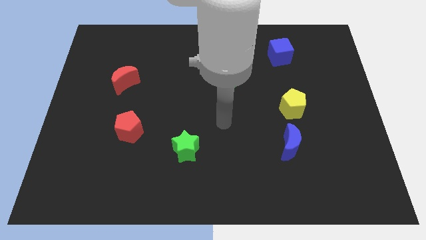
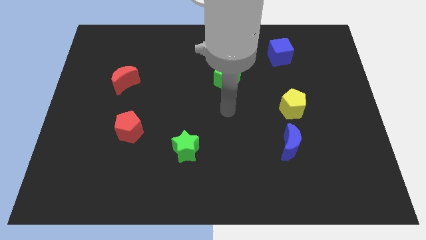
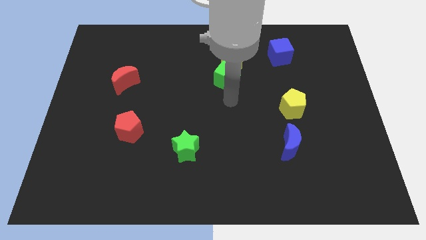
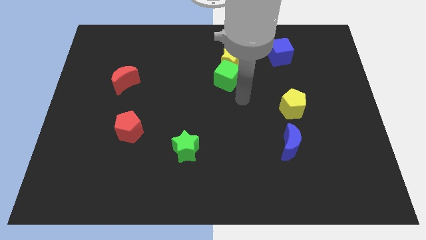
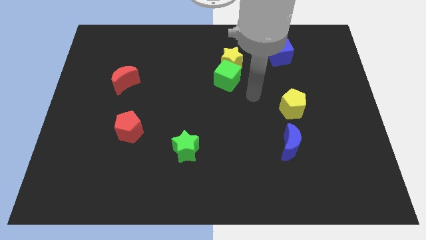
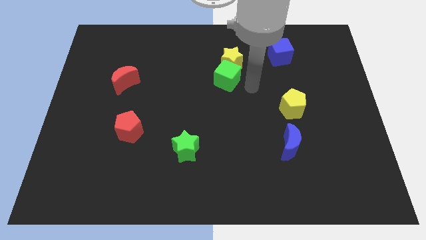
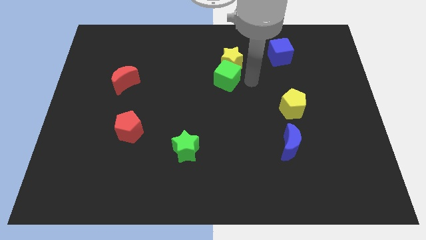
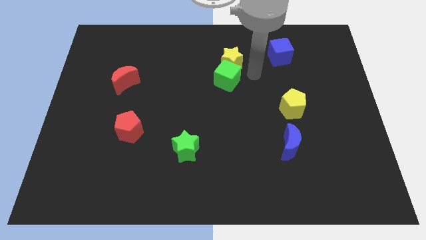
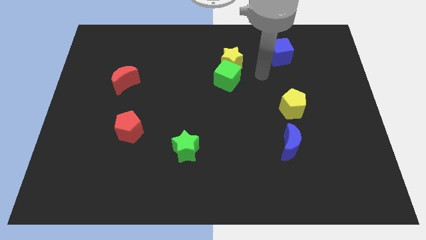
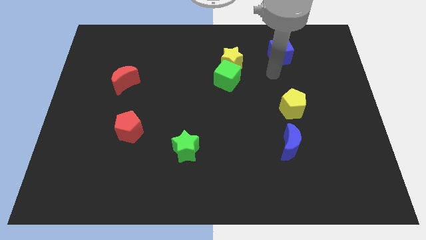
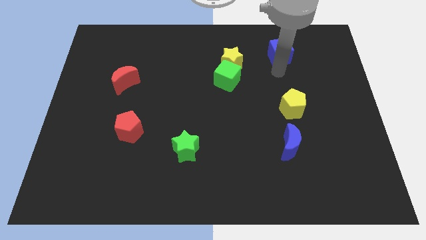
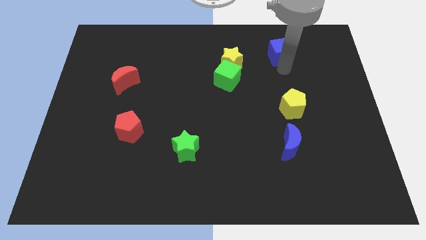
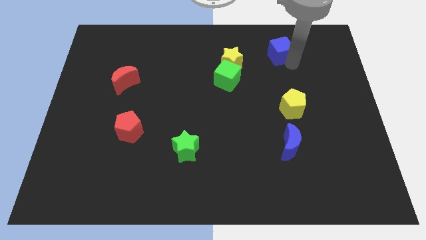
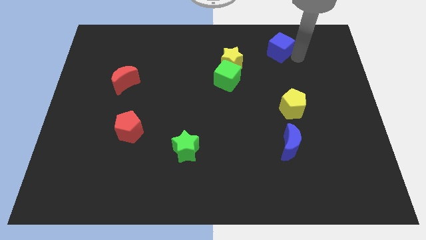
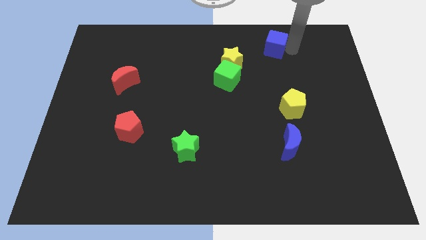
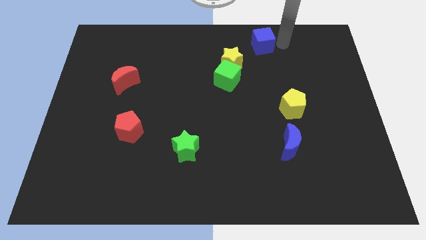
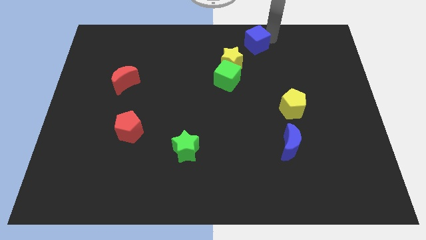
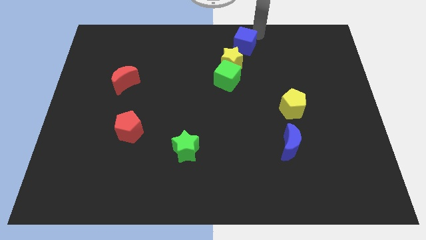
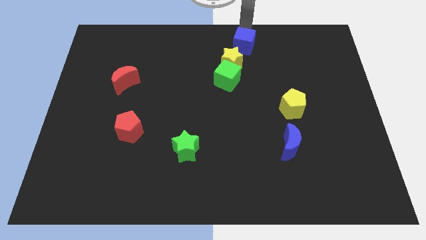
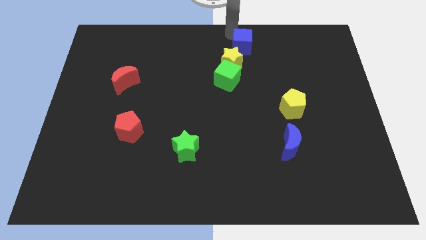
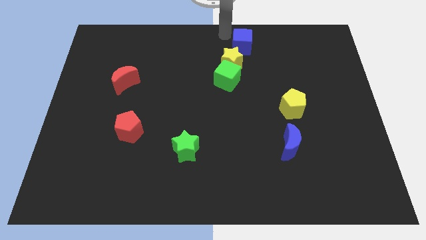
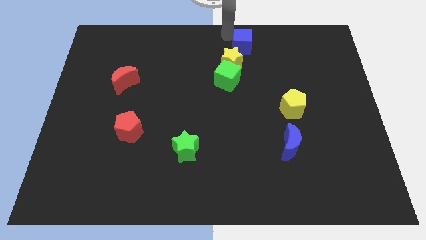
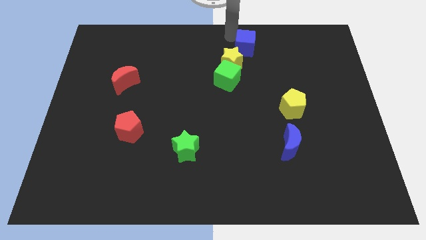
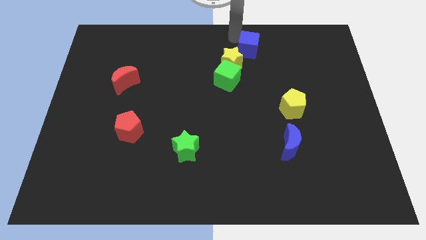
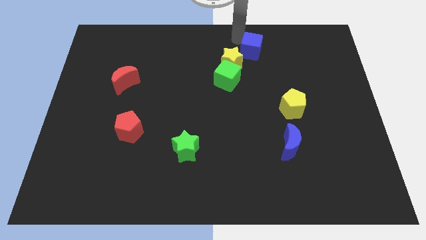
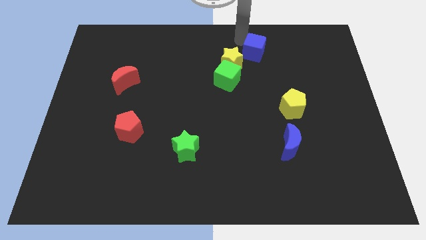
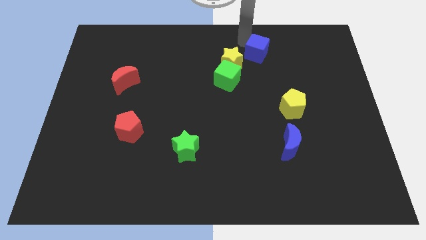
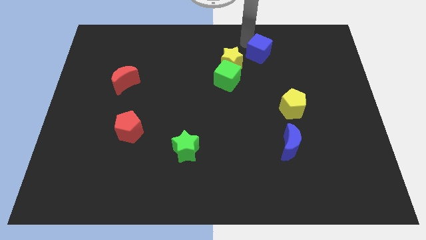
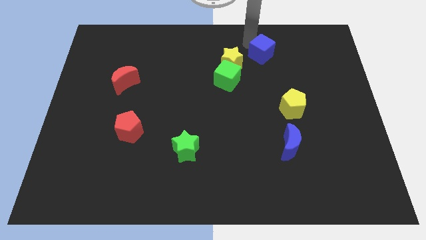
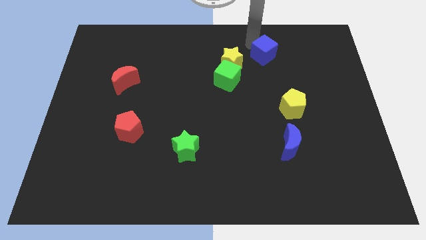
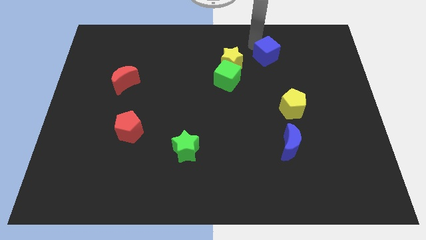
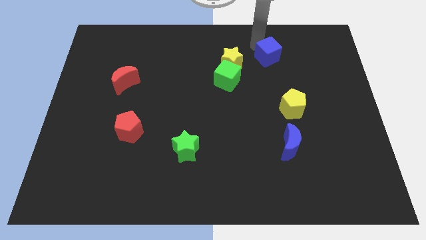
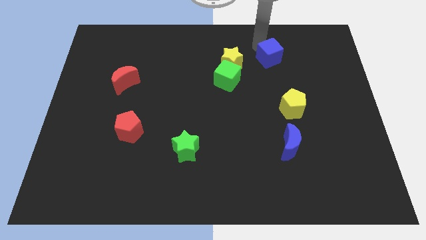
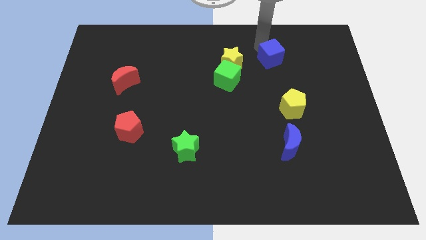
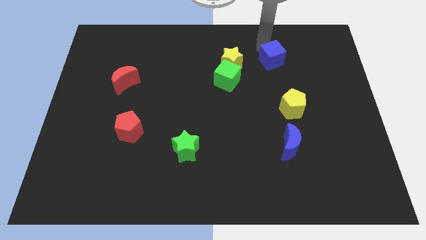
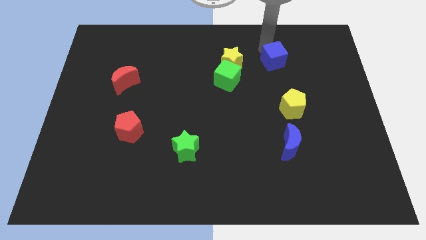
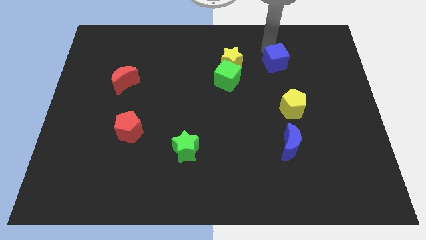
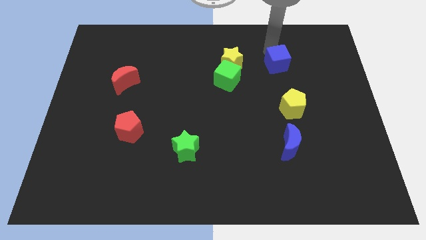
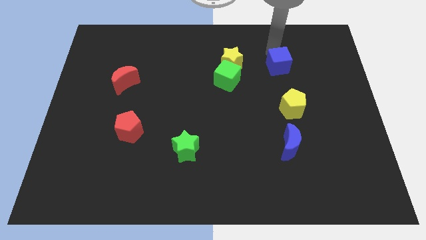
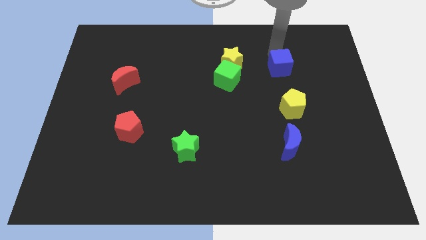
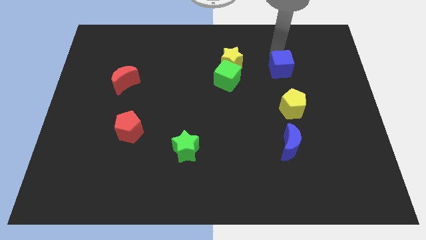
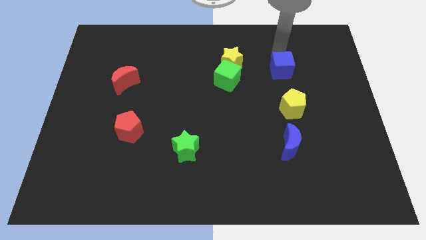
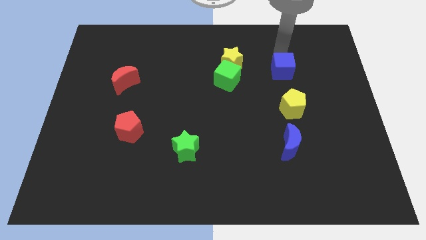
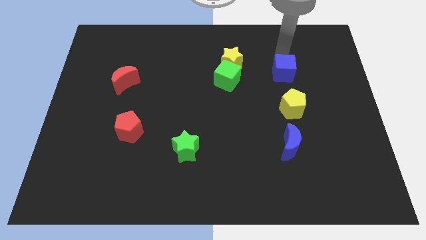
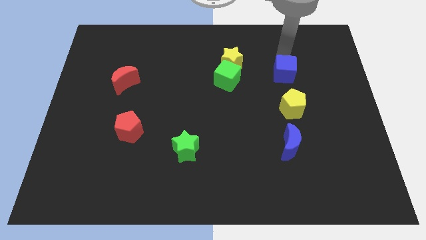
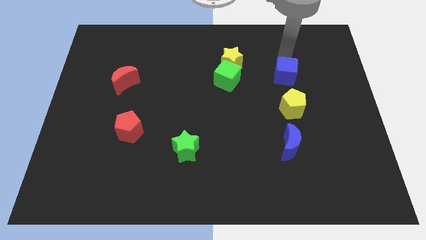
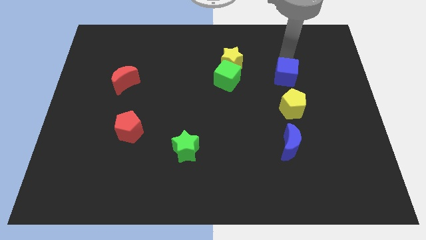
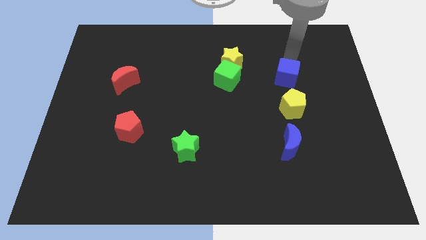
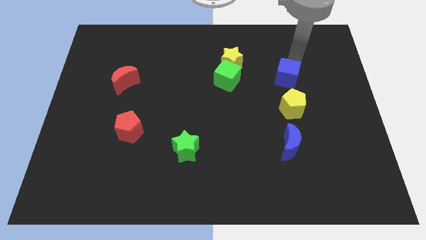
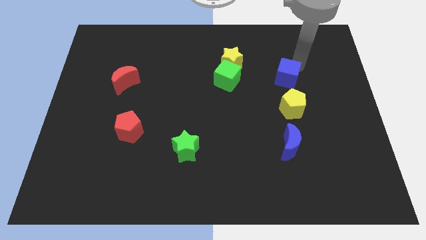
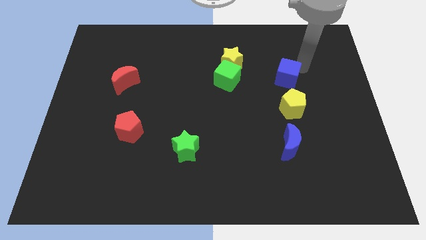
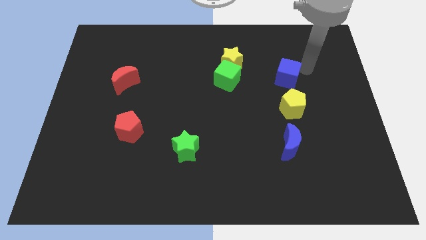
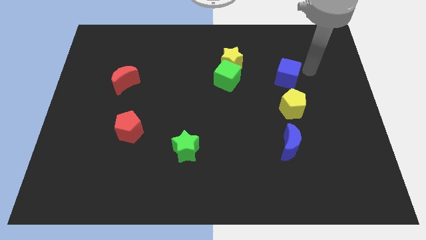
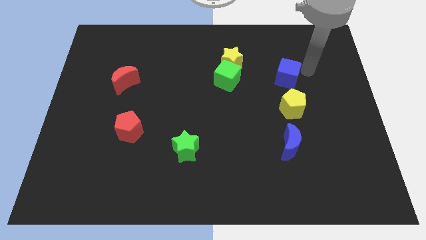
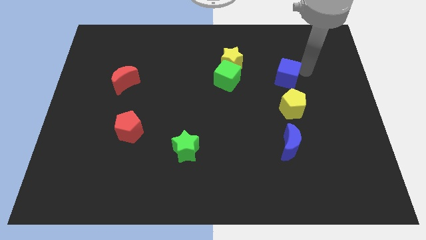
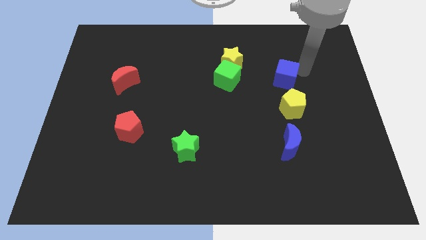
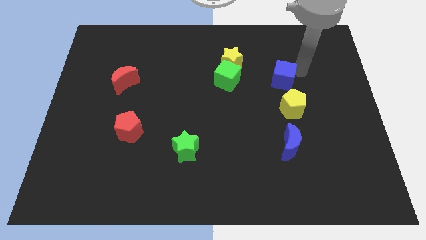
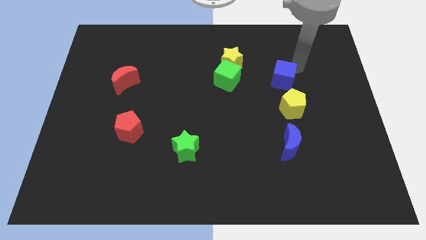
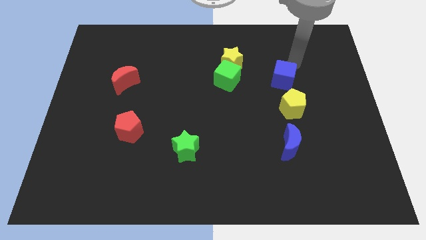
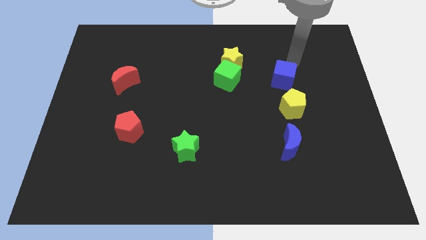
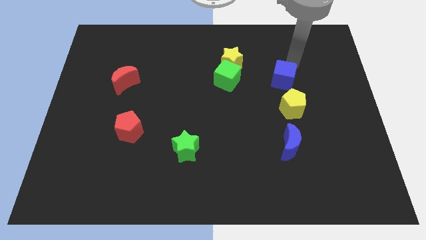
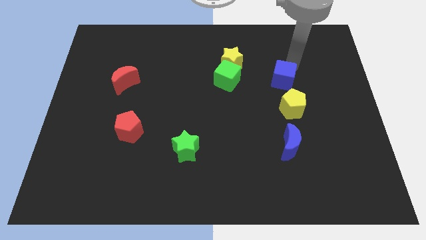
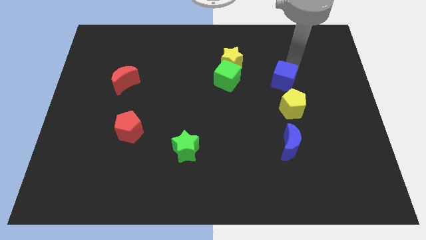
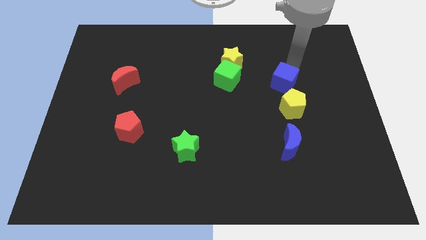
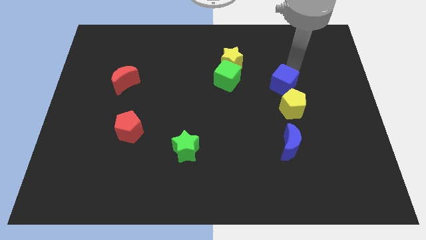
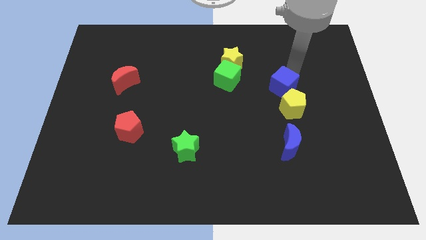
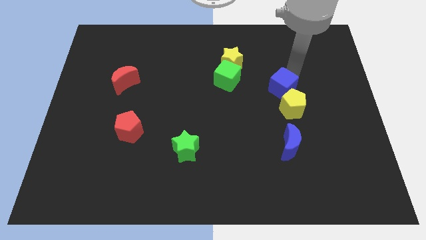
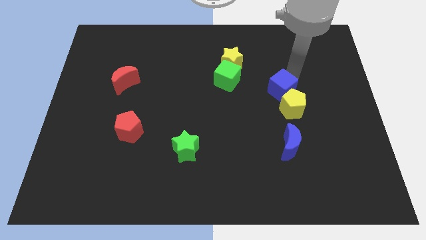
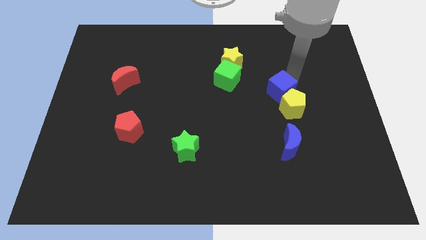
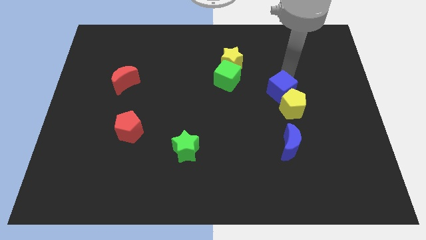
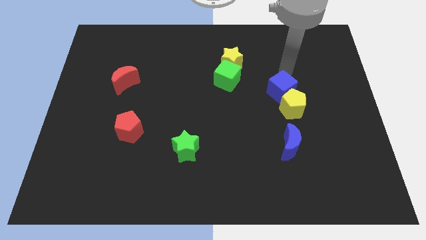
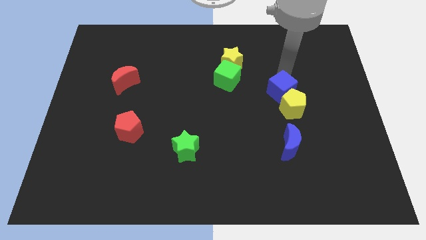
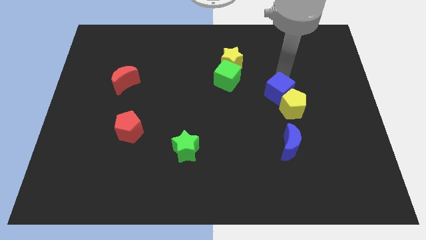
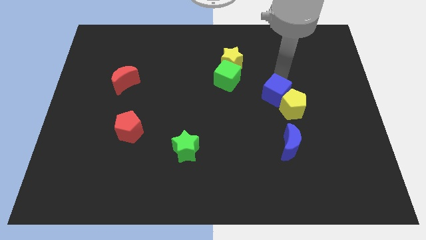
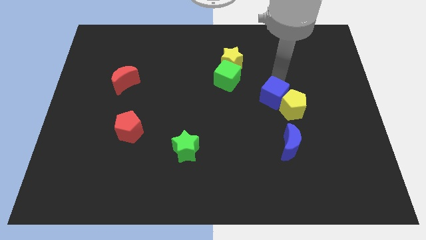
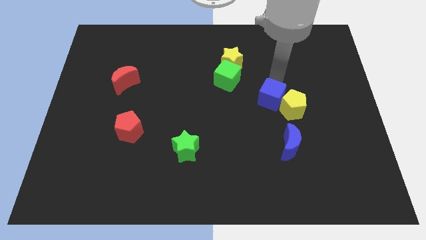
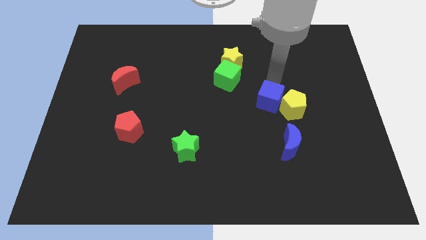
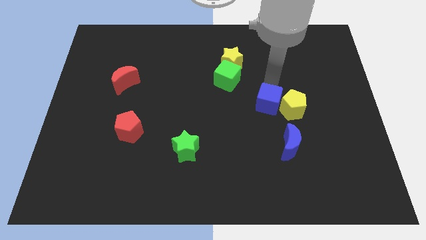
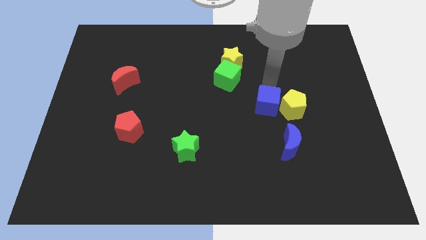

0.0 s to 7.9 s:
move the blue cube to the bottom left of the yellow pentagon
